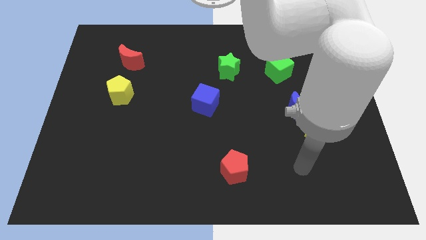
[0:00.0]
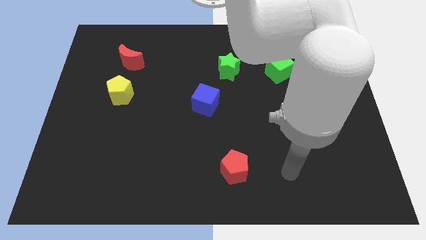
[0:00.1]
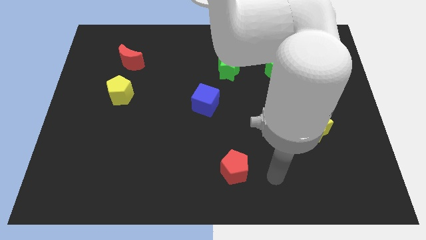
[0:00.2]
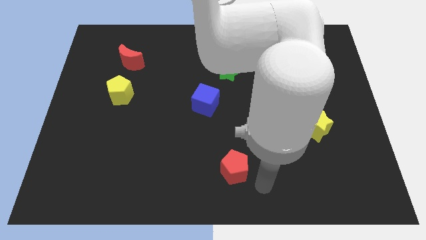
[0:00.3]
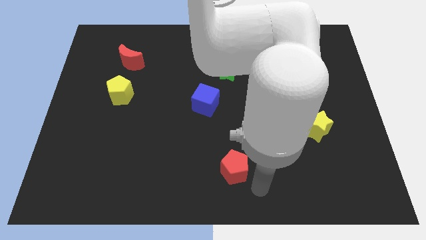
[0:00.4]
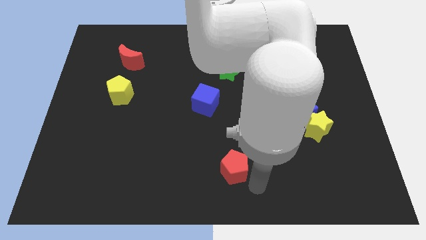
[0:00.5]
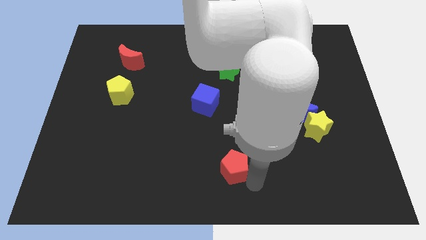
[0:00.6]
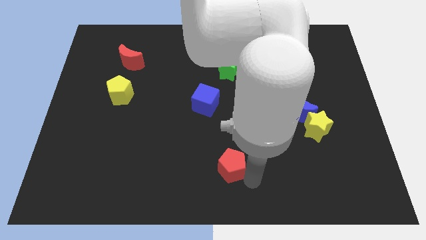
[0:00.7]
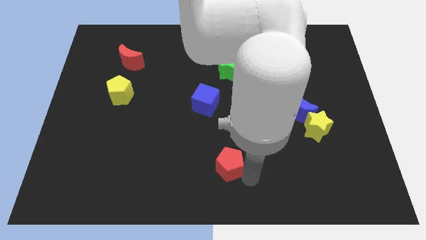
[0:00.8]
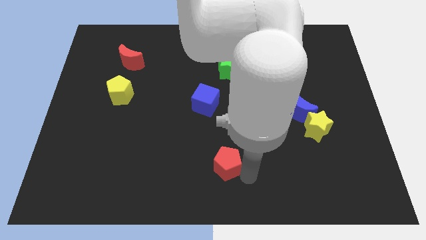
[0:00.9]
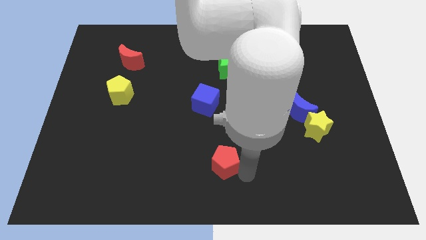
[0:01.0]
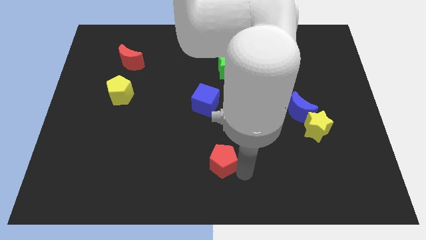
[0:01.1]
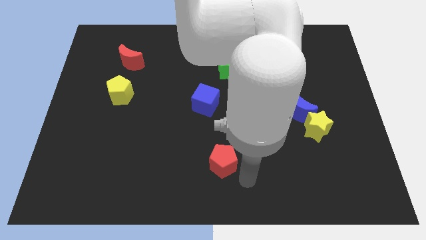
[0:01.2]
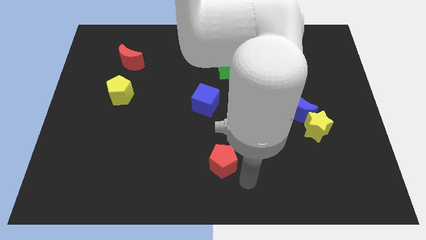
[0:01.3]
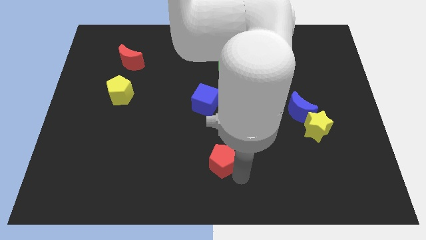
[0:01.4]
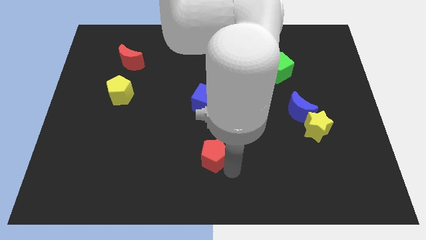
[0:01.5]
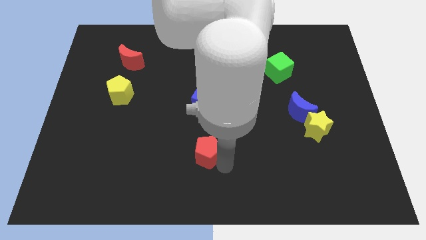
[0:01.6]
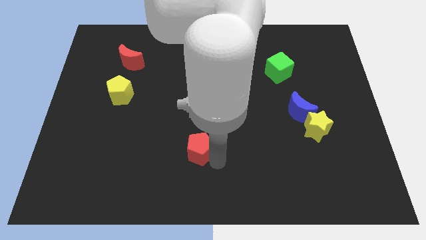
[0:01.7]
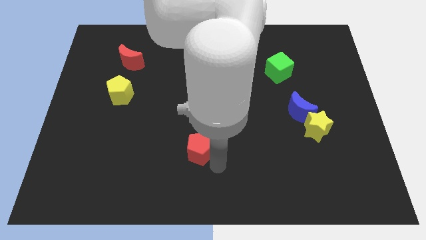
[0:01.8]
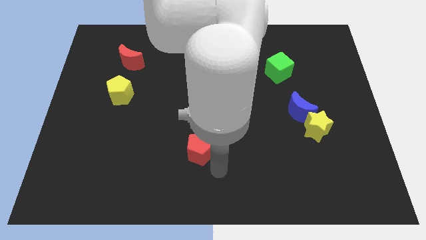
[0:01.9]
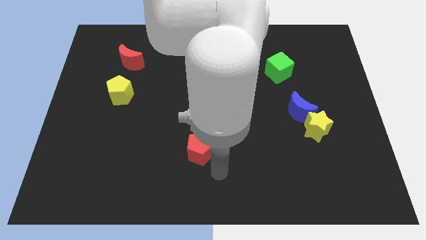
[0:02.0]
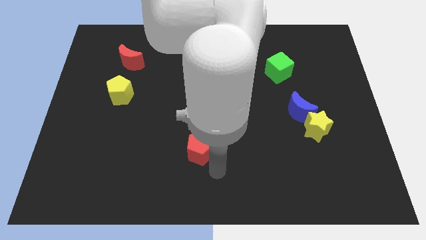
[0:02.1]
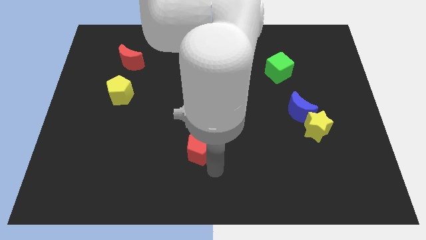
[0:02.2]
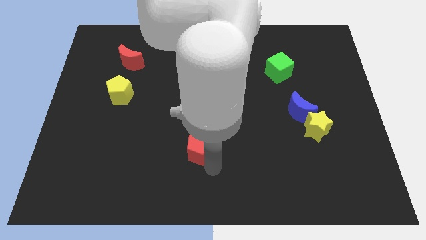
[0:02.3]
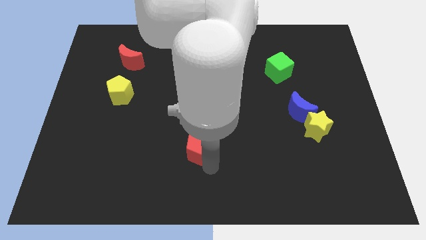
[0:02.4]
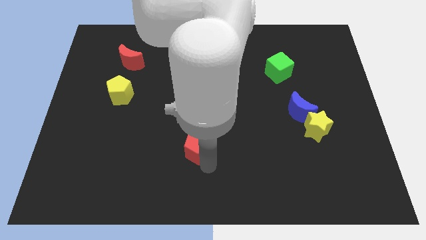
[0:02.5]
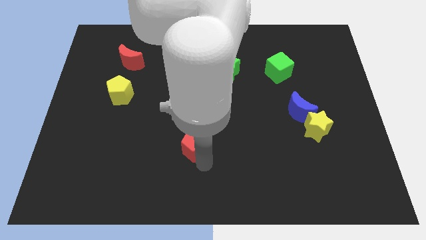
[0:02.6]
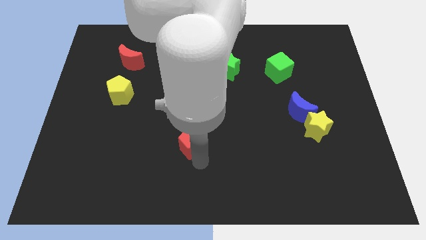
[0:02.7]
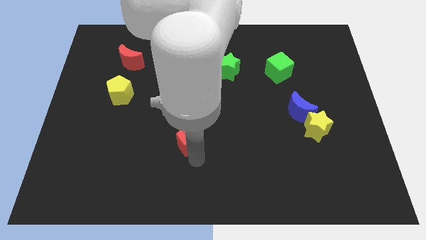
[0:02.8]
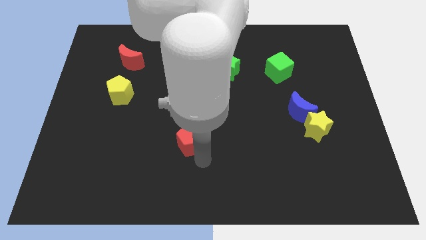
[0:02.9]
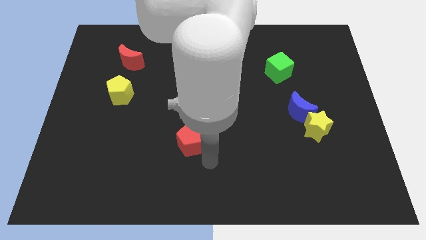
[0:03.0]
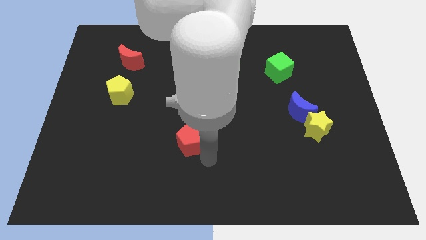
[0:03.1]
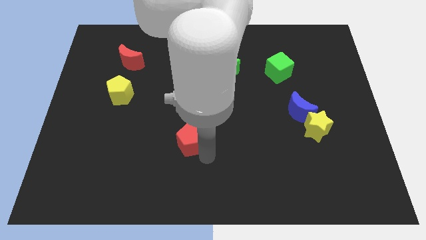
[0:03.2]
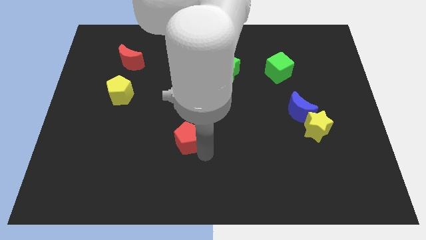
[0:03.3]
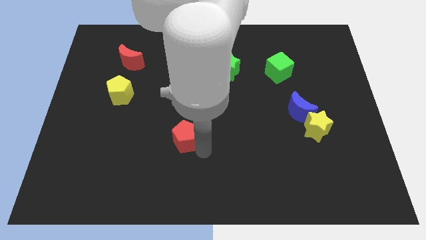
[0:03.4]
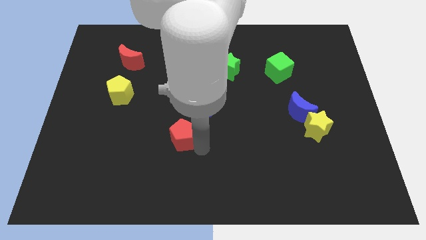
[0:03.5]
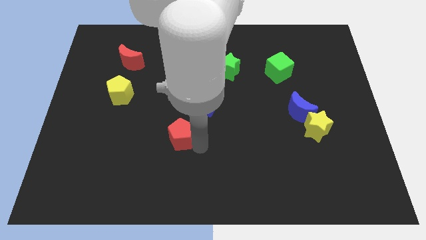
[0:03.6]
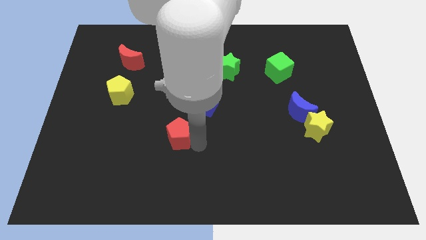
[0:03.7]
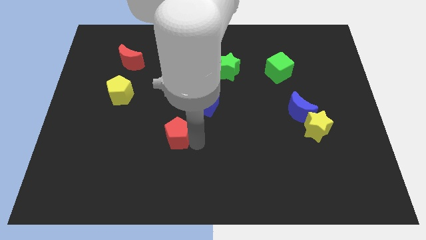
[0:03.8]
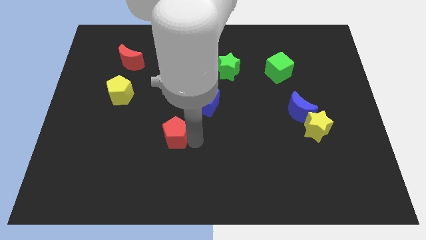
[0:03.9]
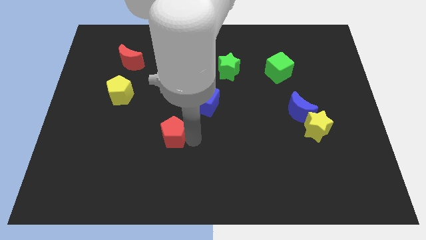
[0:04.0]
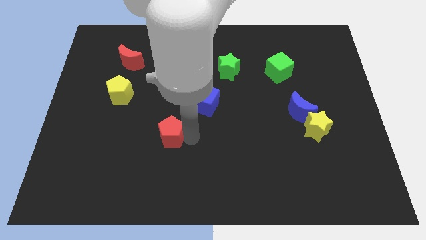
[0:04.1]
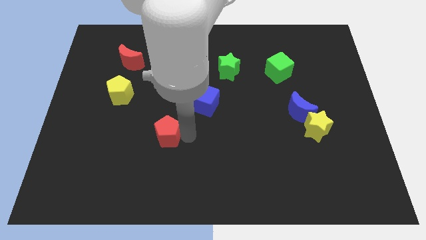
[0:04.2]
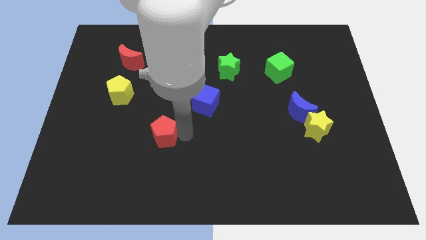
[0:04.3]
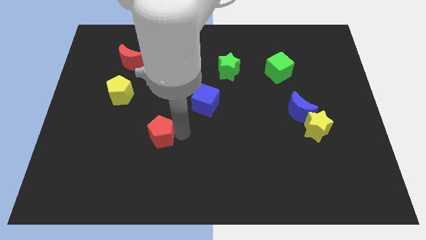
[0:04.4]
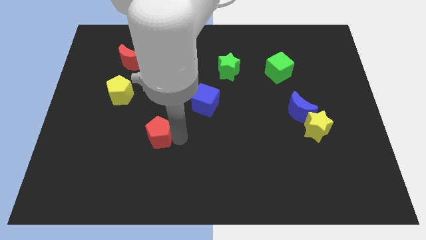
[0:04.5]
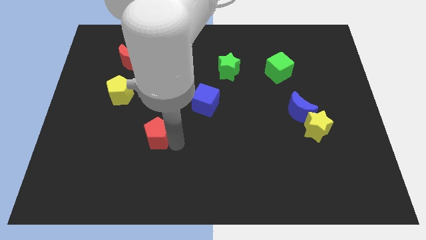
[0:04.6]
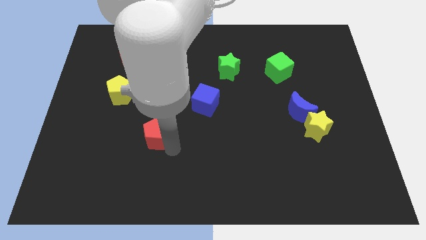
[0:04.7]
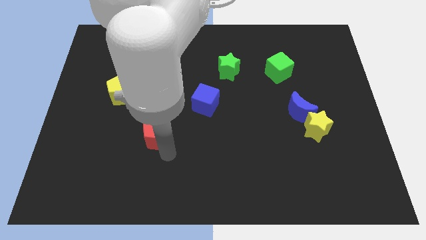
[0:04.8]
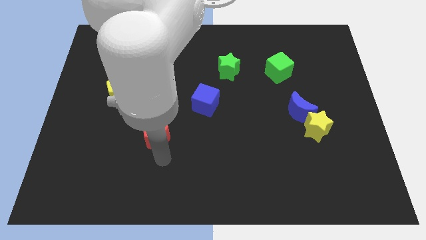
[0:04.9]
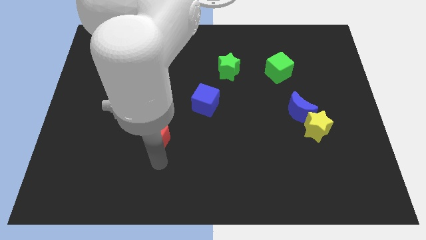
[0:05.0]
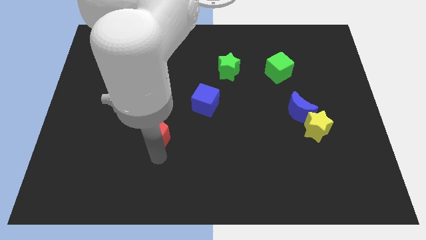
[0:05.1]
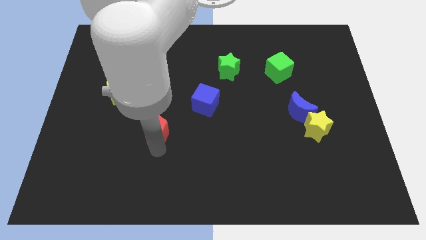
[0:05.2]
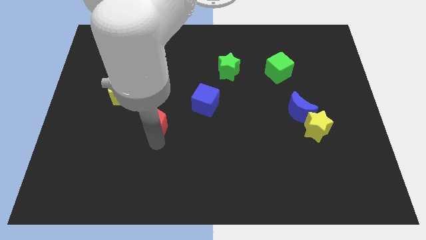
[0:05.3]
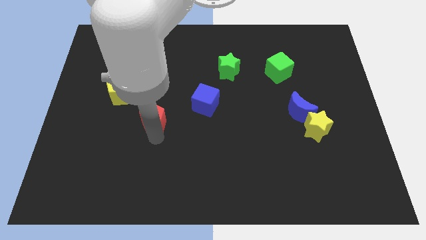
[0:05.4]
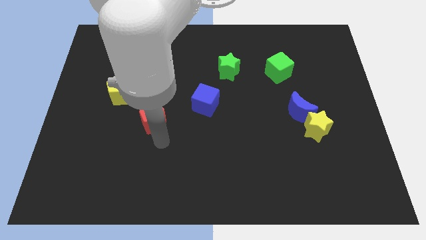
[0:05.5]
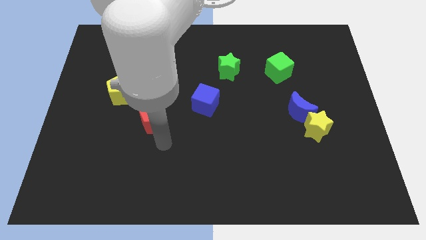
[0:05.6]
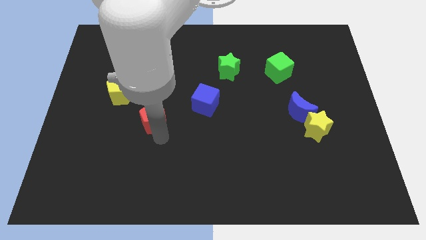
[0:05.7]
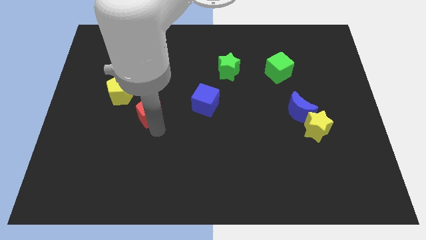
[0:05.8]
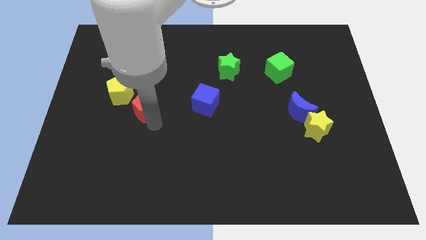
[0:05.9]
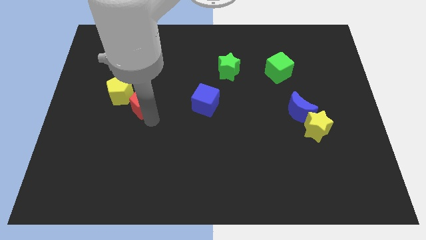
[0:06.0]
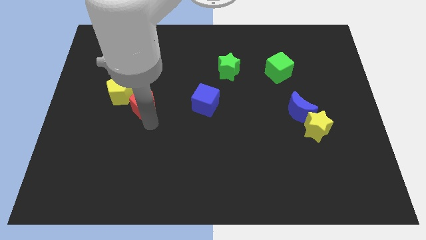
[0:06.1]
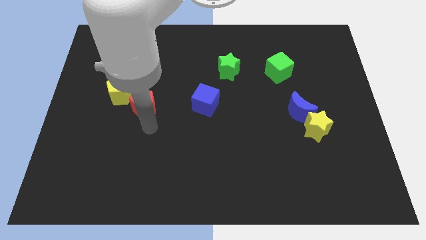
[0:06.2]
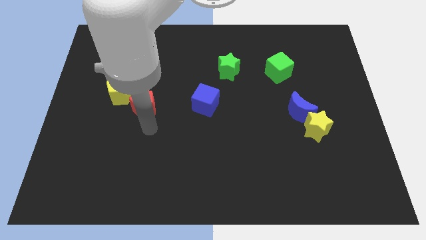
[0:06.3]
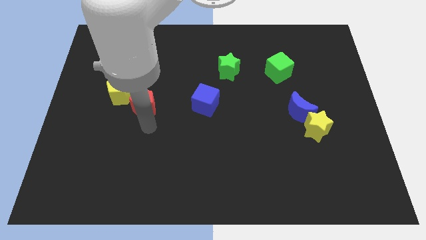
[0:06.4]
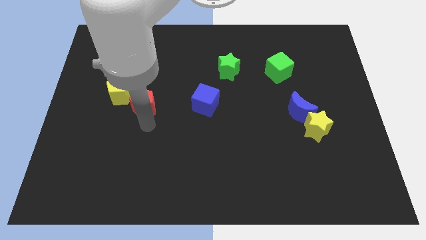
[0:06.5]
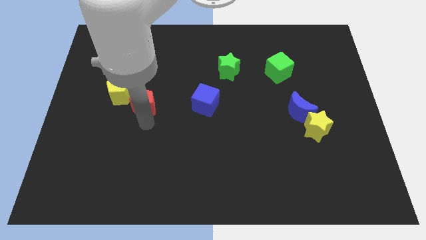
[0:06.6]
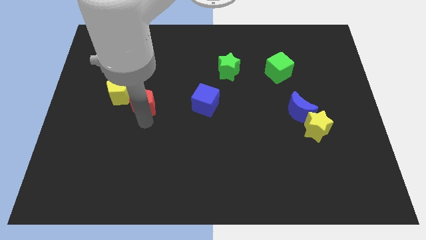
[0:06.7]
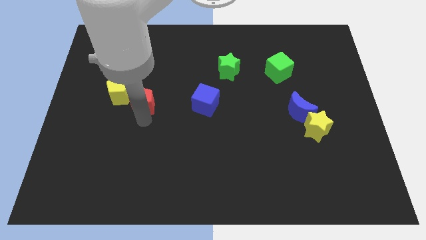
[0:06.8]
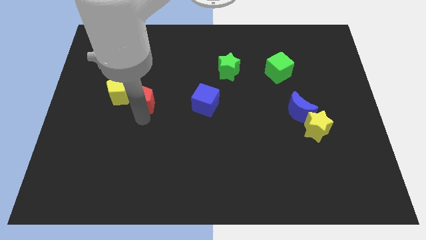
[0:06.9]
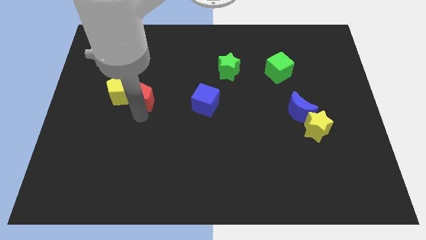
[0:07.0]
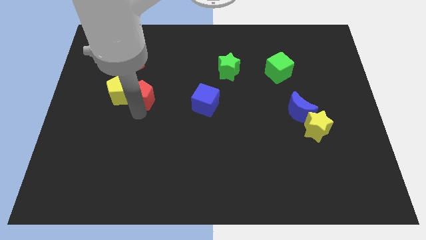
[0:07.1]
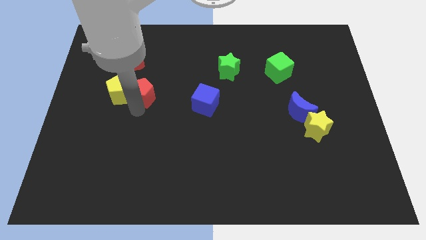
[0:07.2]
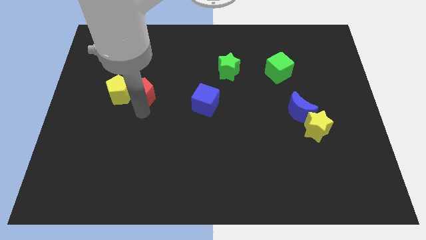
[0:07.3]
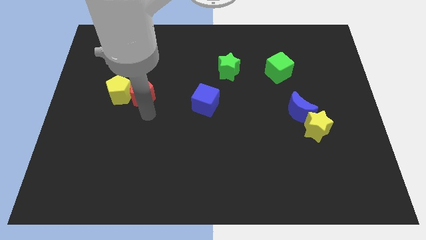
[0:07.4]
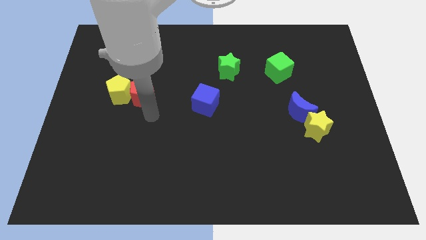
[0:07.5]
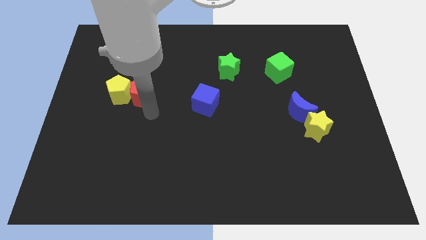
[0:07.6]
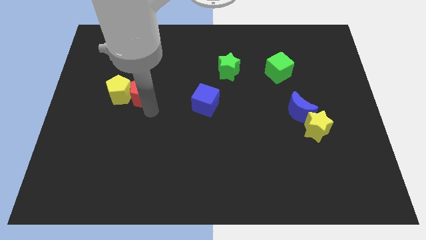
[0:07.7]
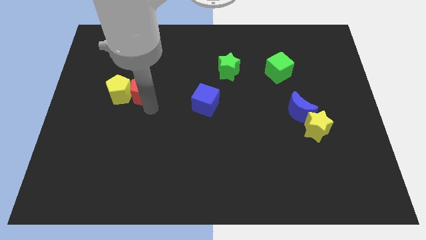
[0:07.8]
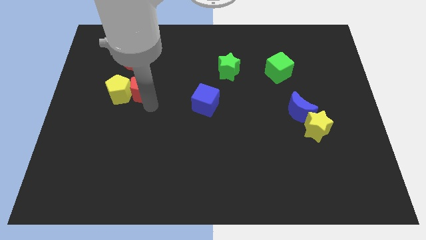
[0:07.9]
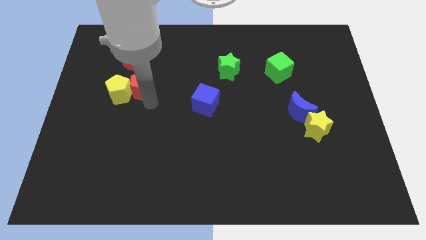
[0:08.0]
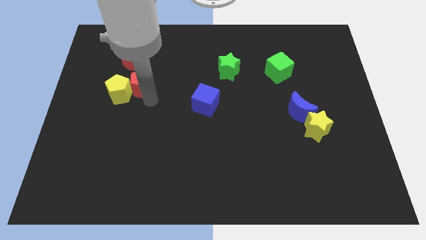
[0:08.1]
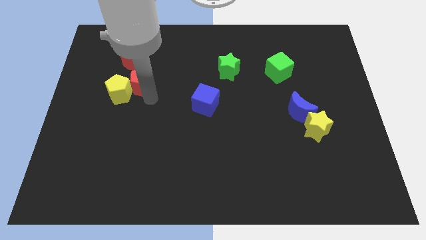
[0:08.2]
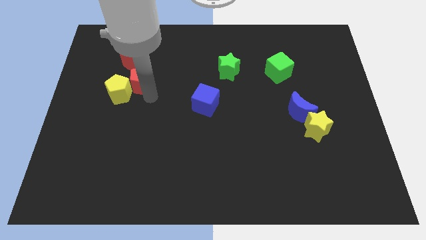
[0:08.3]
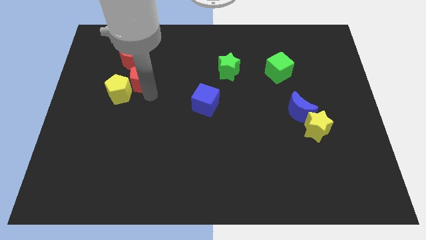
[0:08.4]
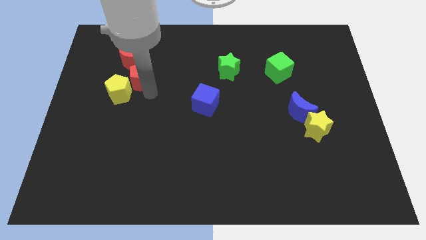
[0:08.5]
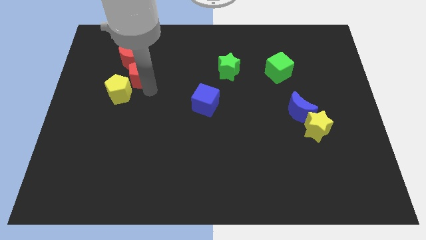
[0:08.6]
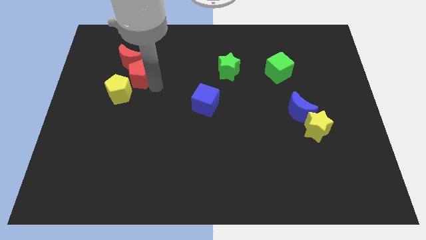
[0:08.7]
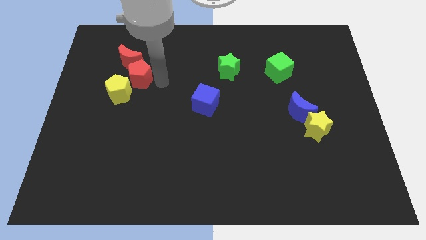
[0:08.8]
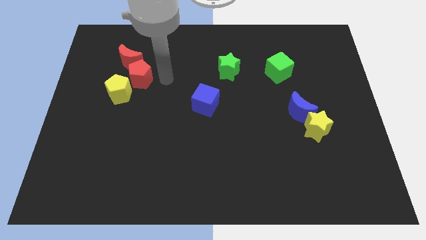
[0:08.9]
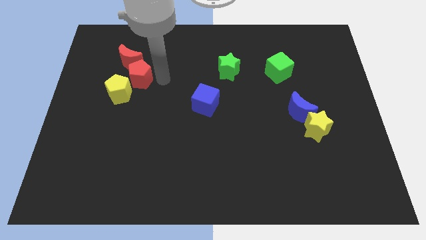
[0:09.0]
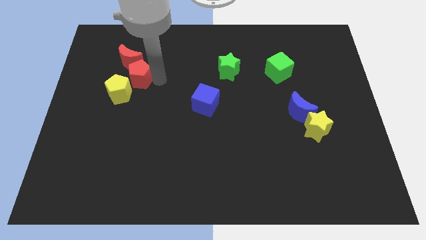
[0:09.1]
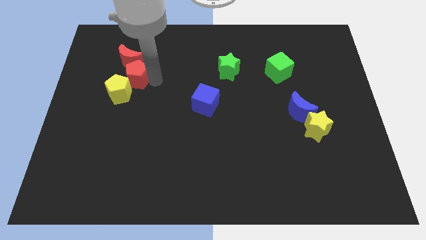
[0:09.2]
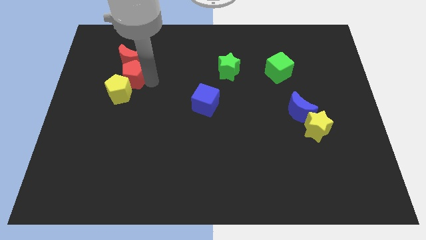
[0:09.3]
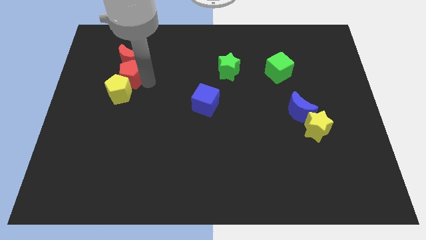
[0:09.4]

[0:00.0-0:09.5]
slide the red pentagon diagonally down and to the left of the red moon
